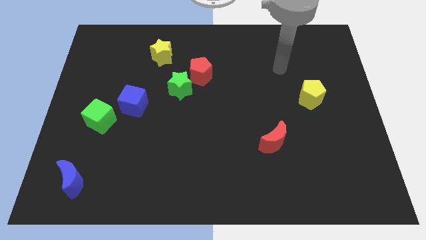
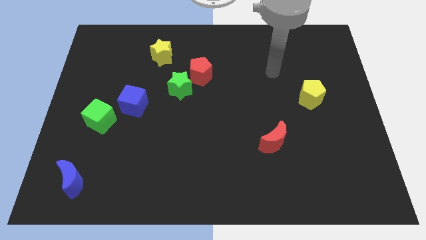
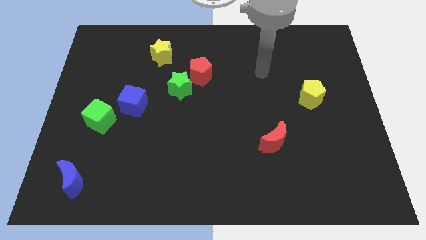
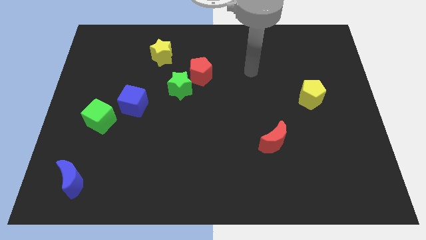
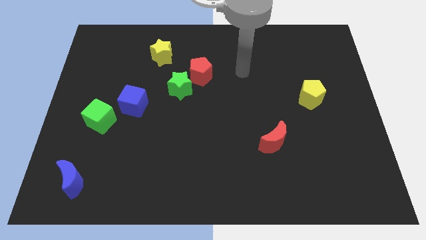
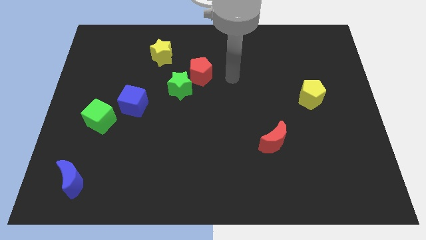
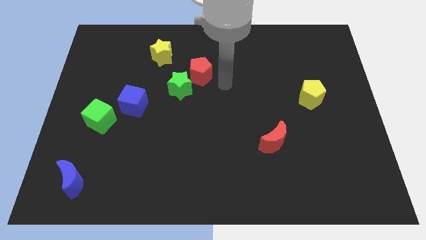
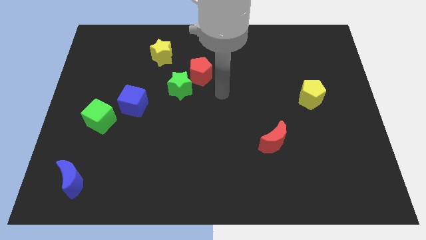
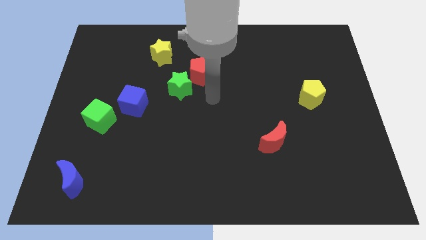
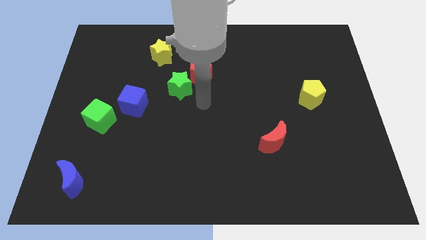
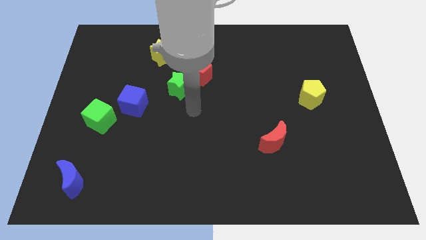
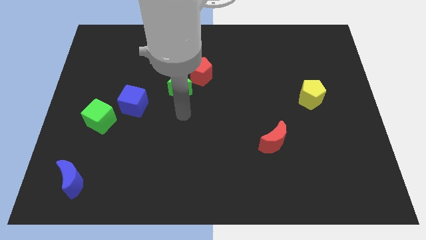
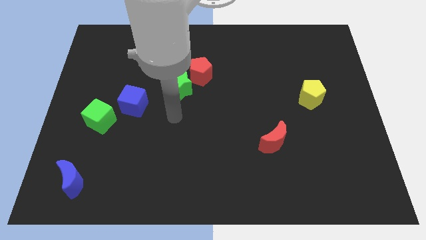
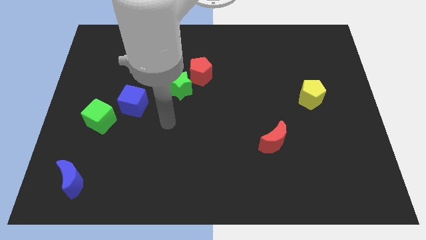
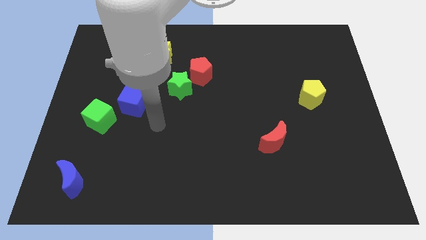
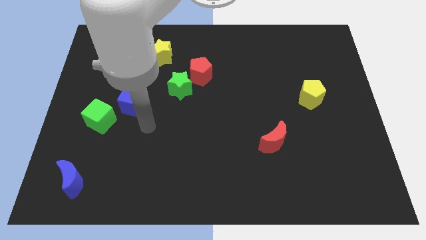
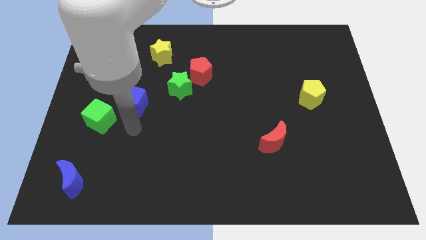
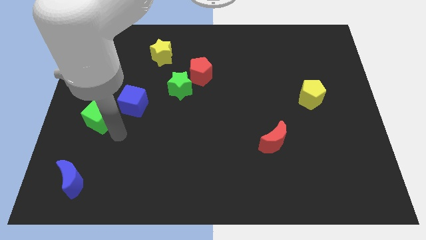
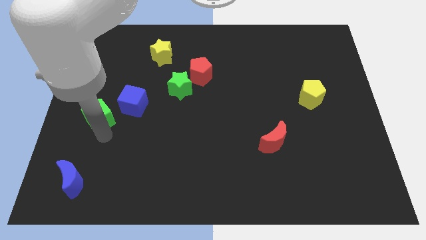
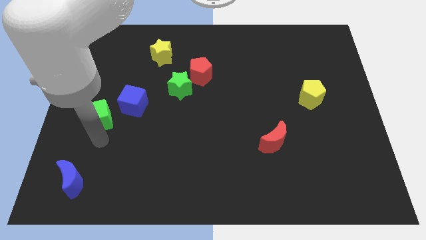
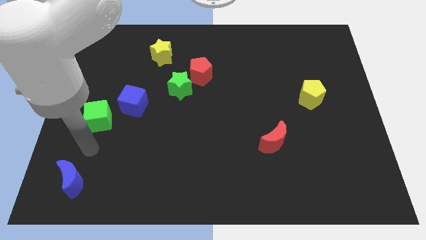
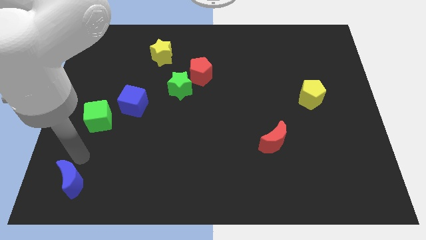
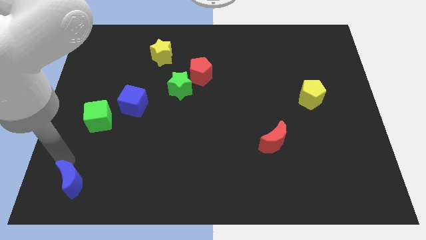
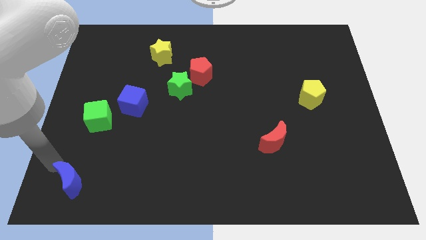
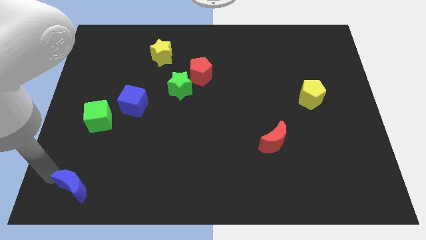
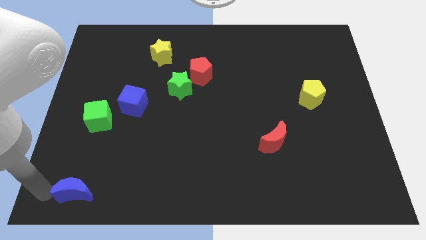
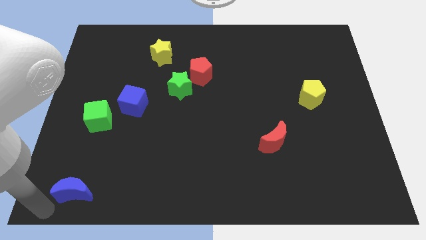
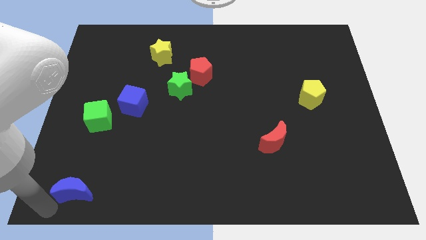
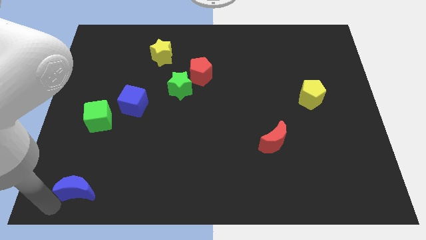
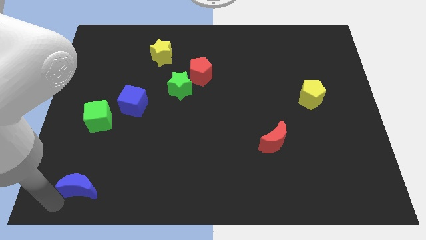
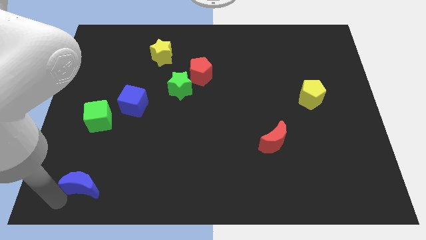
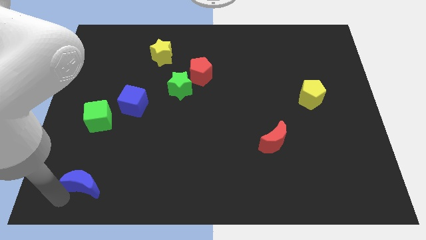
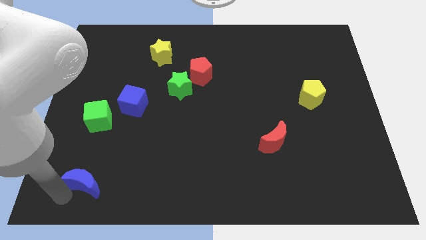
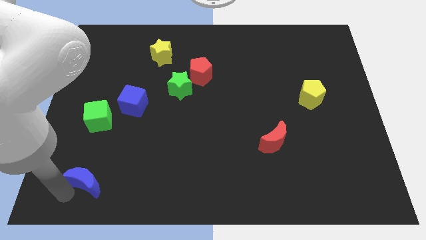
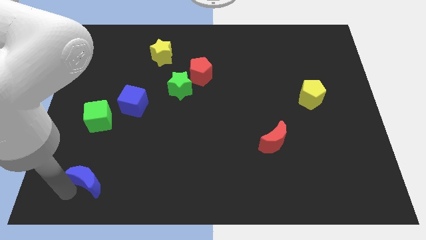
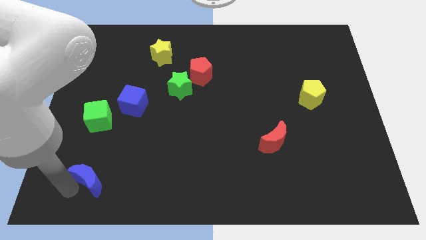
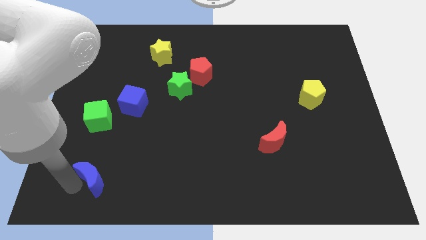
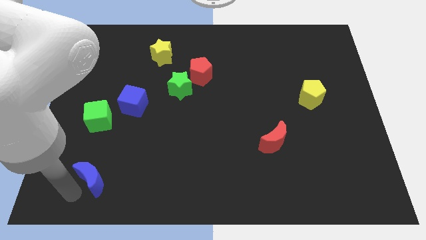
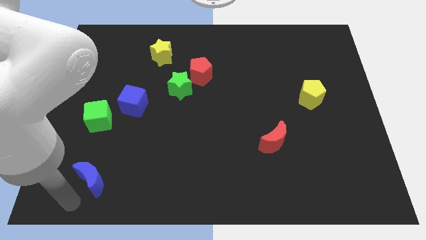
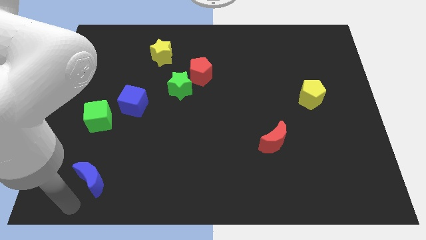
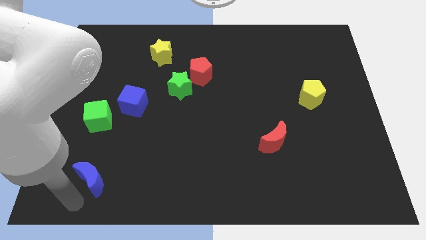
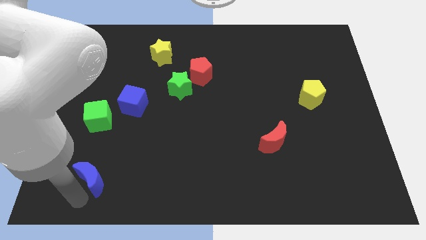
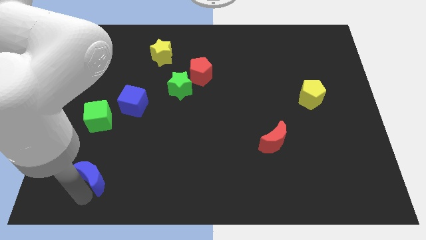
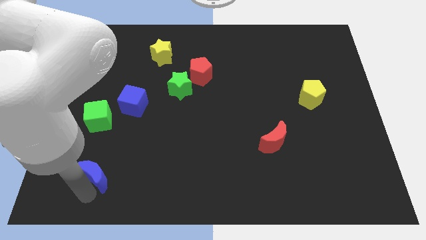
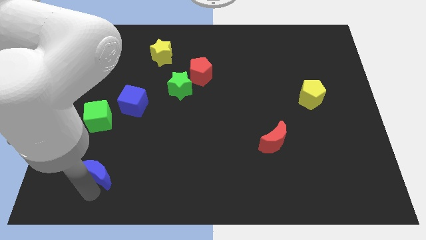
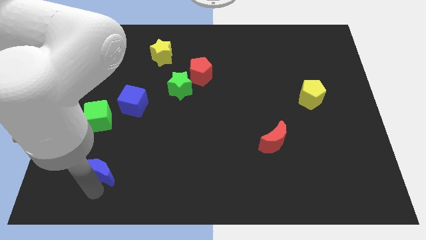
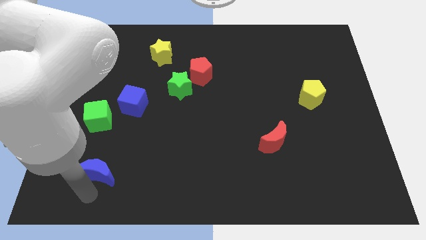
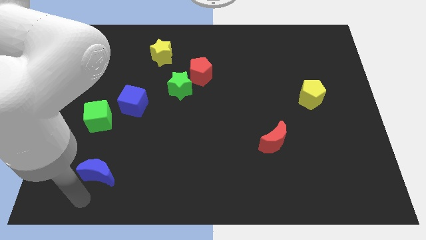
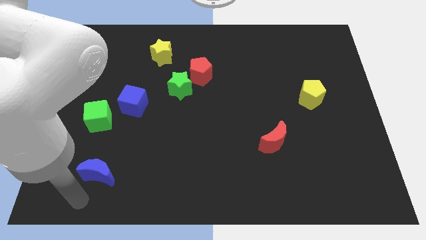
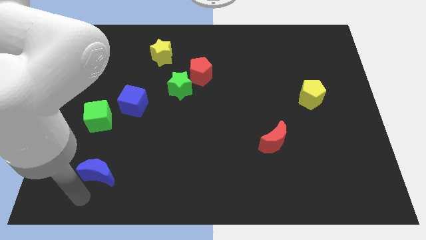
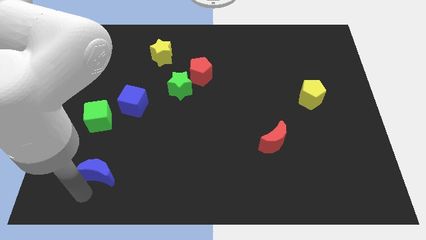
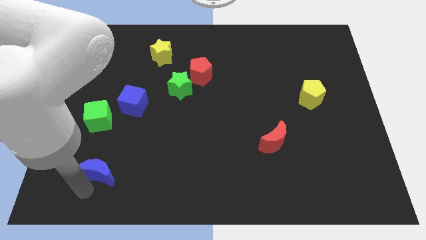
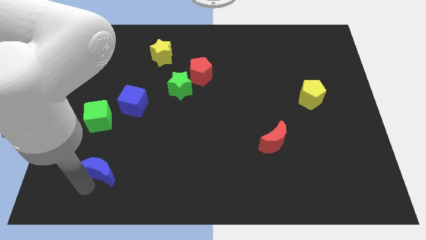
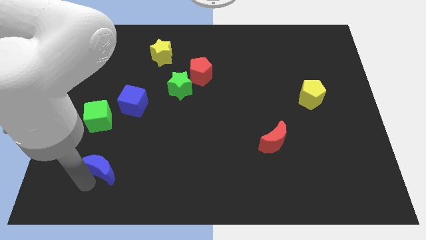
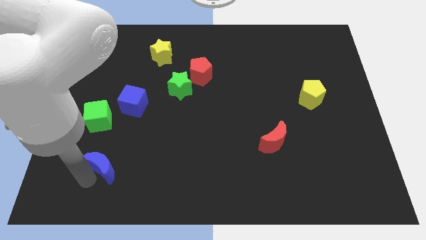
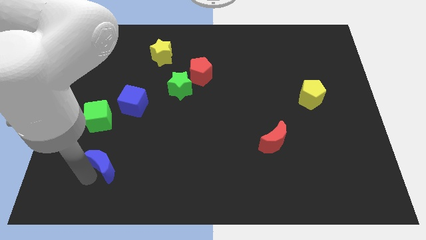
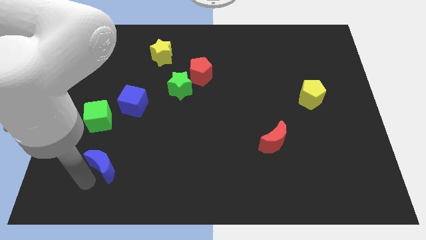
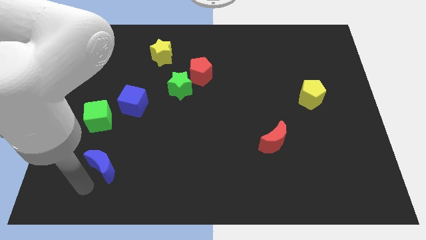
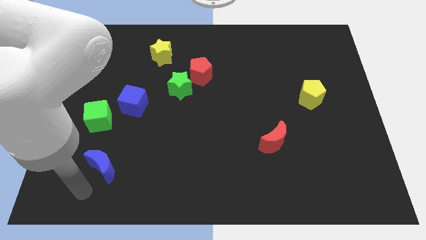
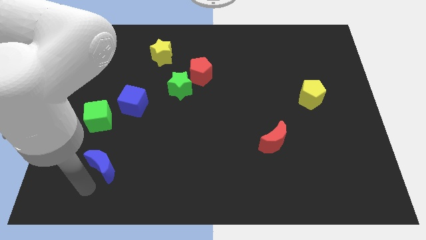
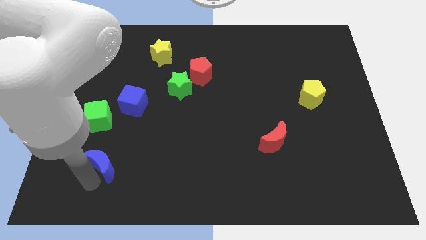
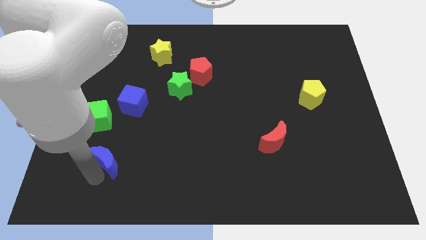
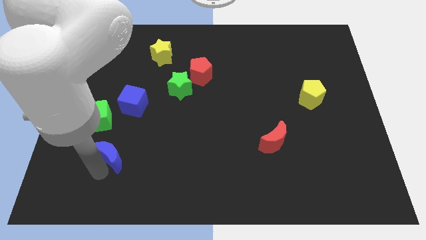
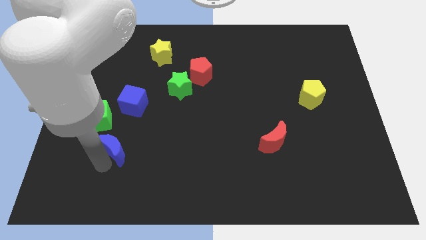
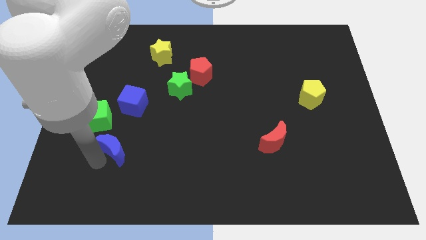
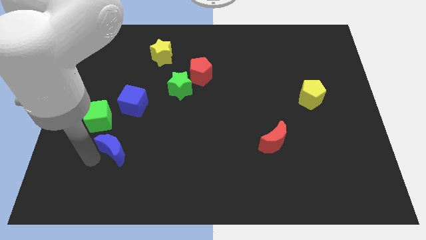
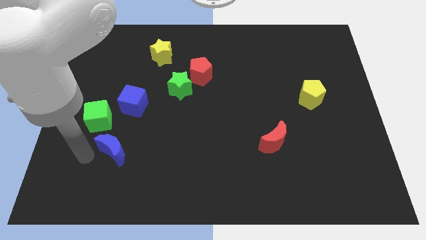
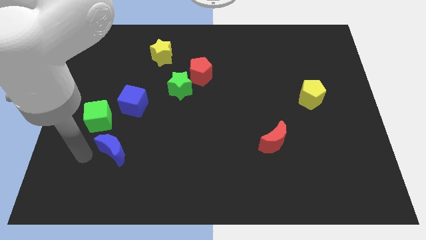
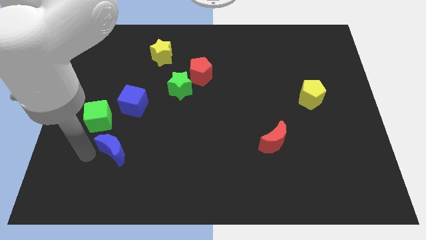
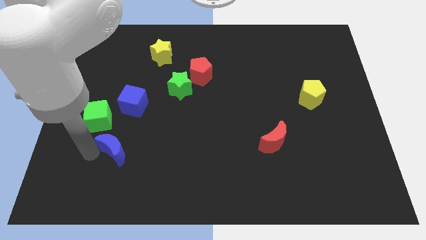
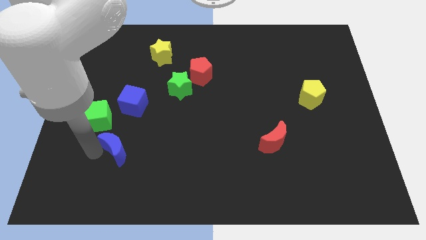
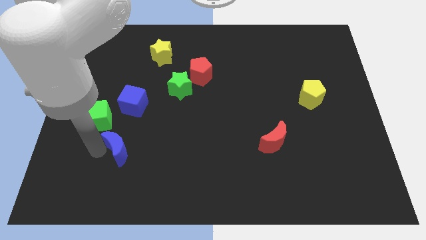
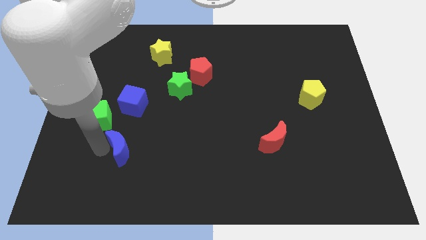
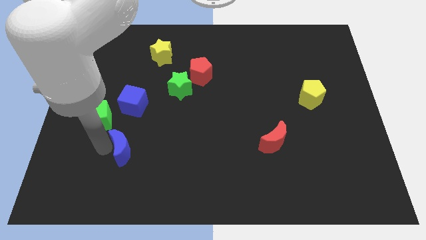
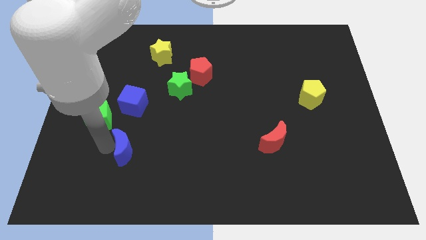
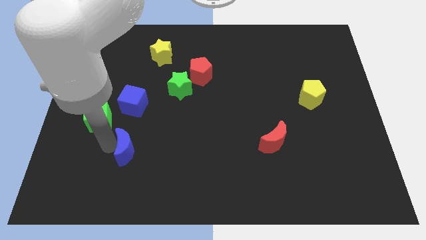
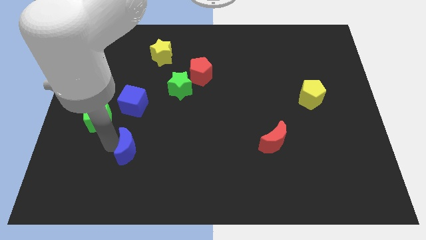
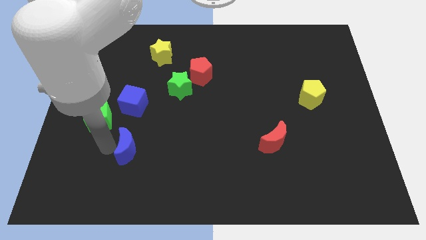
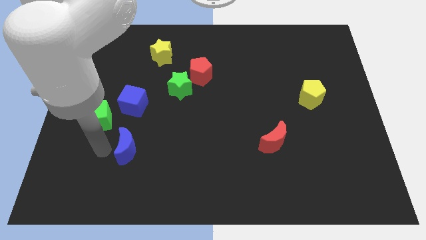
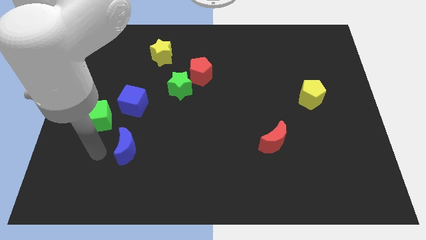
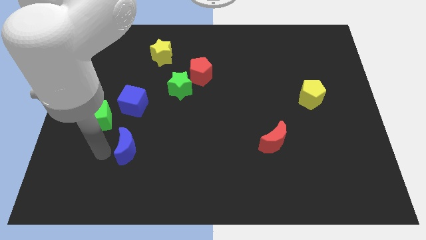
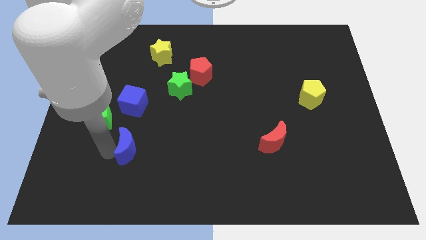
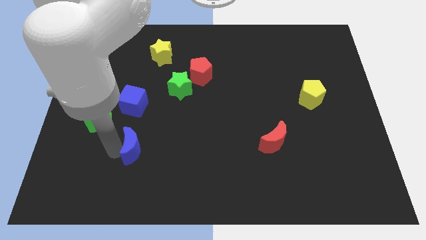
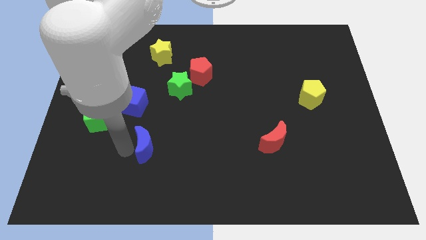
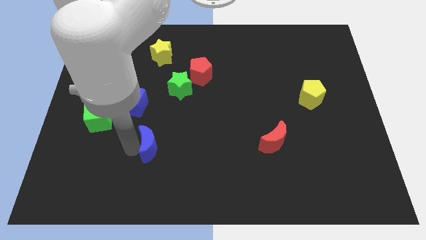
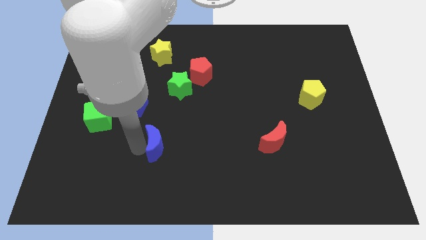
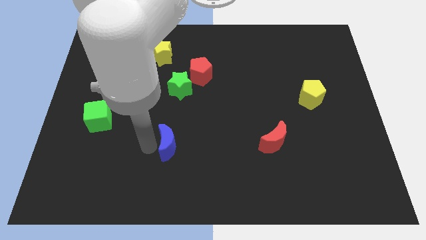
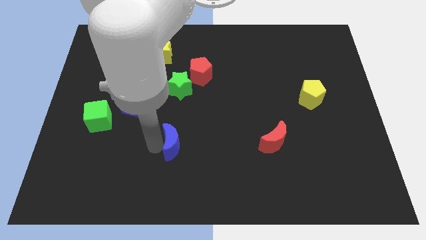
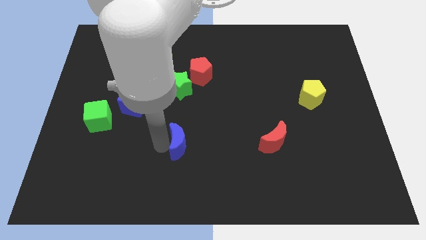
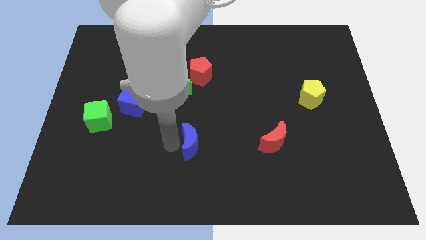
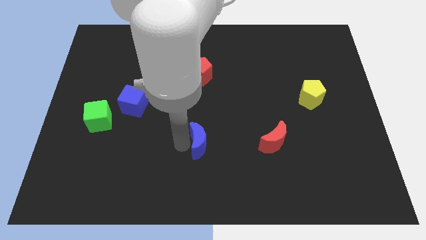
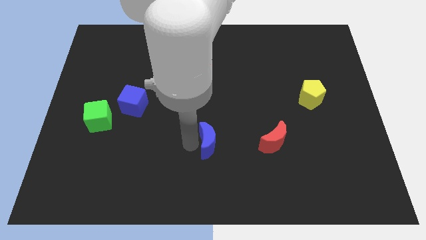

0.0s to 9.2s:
move the blue moon left of the red moon
